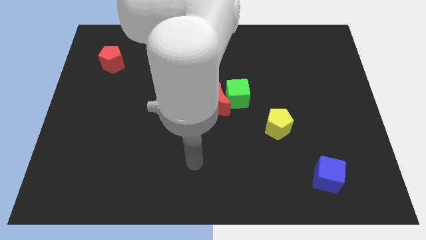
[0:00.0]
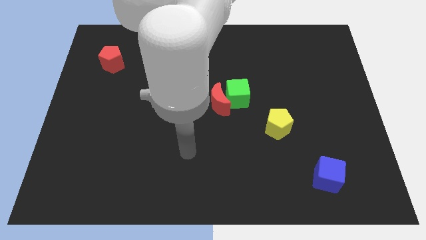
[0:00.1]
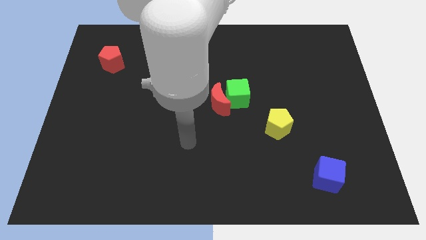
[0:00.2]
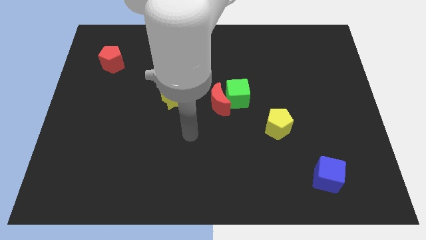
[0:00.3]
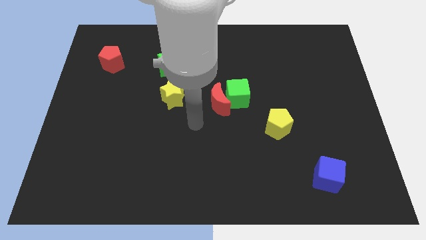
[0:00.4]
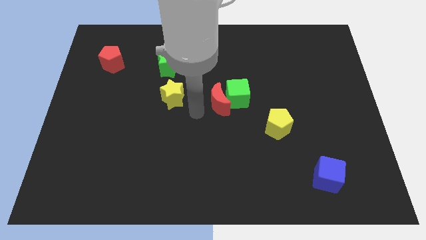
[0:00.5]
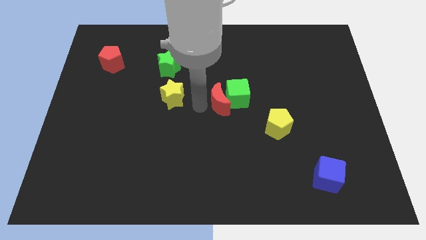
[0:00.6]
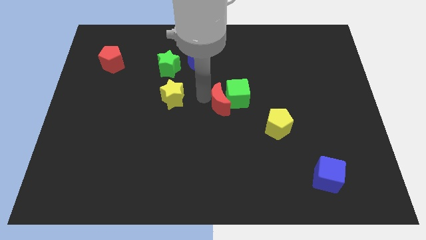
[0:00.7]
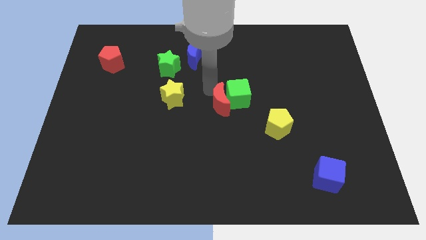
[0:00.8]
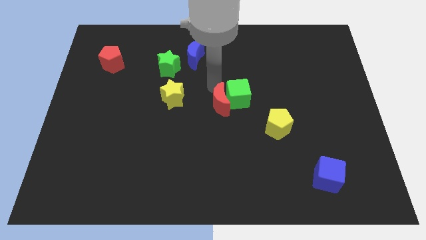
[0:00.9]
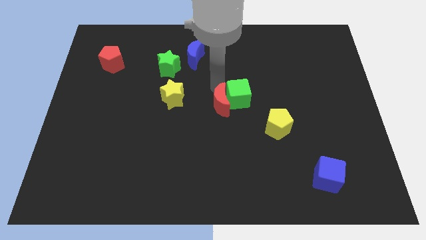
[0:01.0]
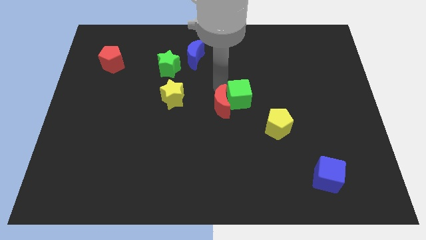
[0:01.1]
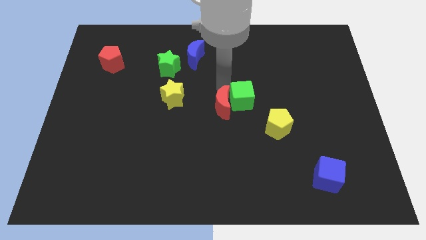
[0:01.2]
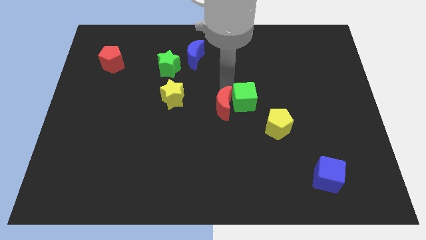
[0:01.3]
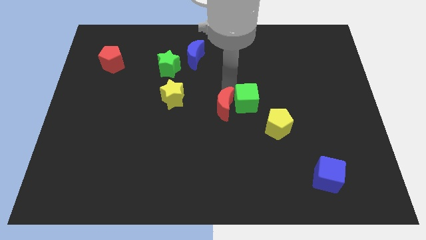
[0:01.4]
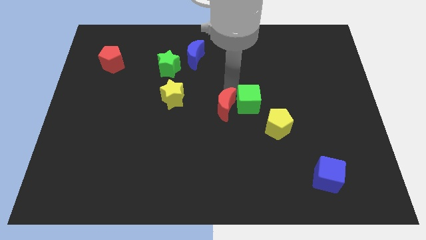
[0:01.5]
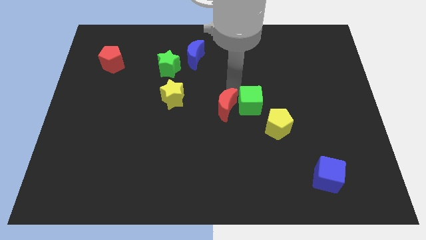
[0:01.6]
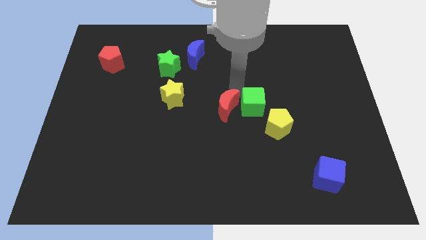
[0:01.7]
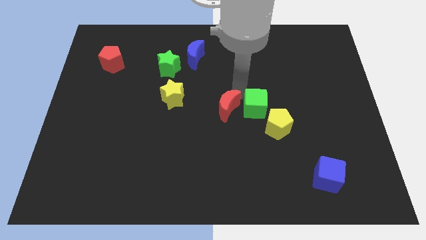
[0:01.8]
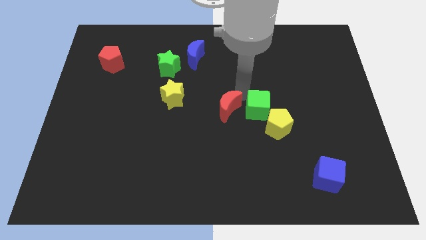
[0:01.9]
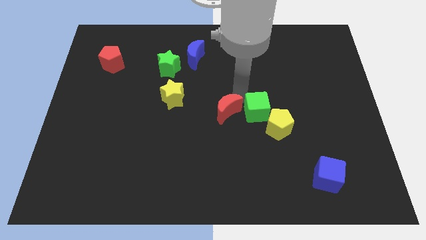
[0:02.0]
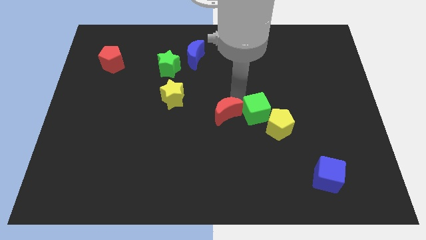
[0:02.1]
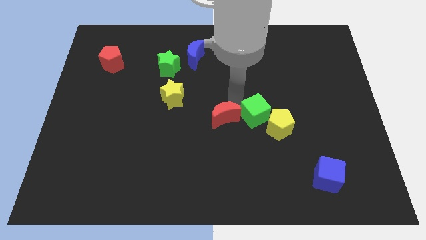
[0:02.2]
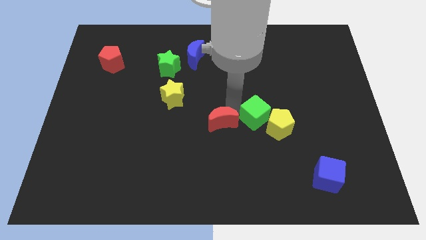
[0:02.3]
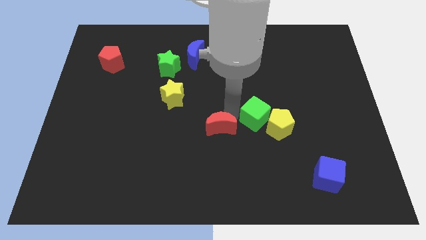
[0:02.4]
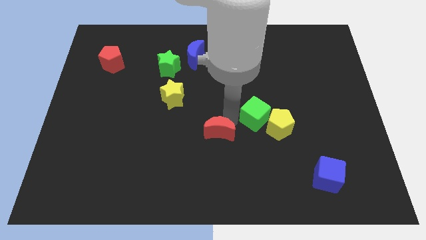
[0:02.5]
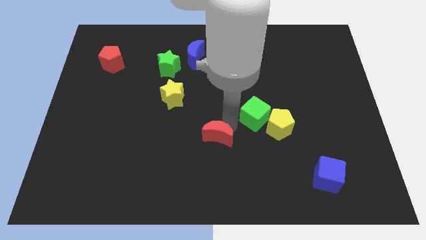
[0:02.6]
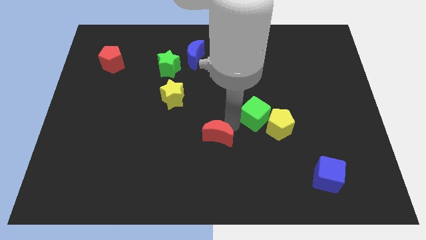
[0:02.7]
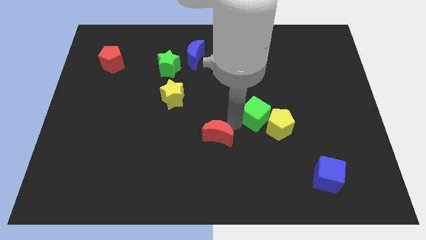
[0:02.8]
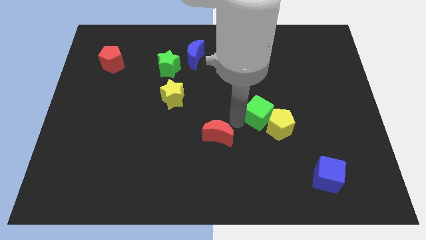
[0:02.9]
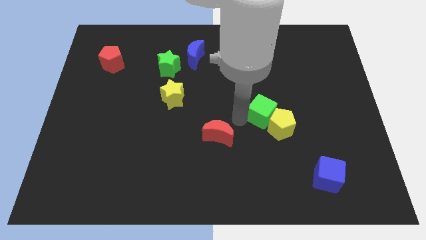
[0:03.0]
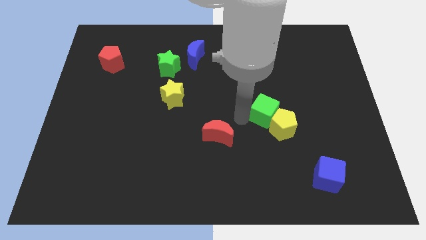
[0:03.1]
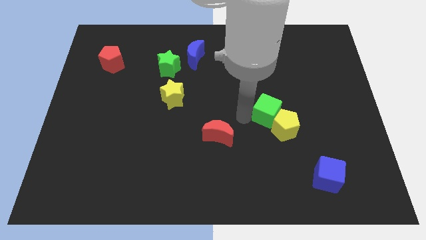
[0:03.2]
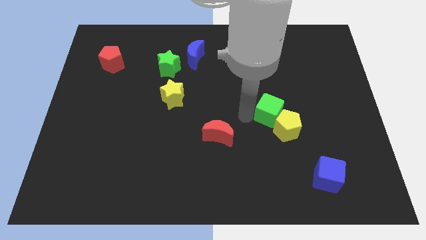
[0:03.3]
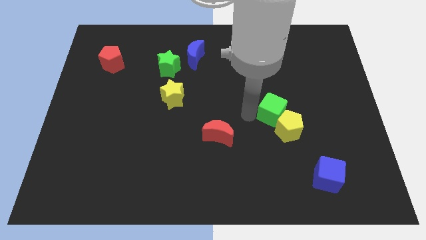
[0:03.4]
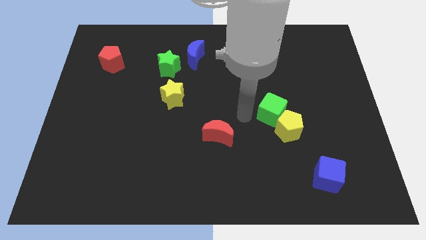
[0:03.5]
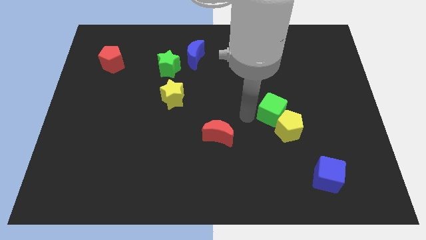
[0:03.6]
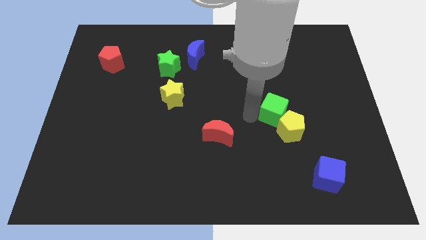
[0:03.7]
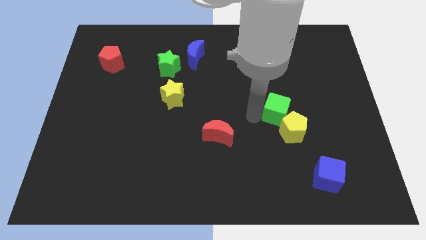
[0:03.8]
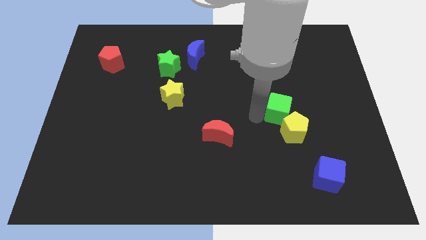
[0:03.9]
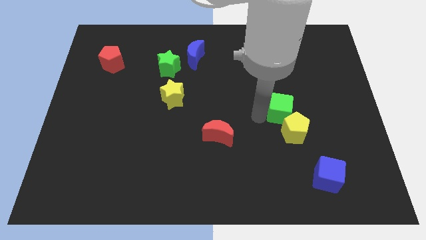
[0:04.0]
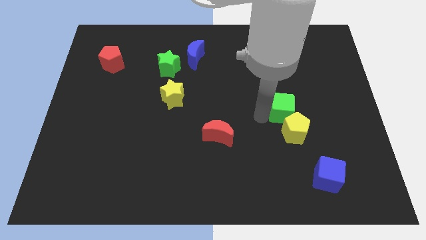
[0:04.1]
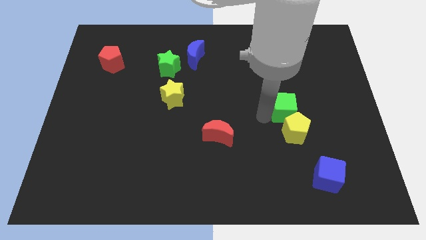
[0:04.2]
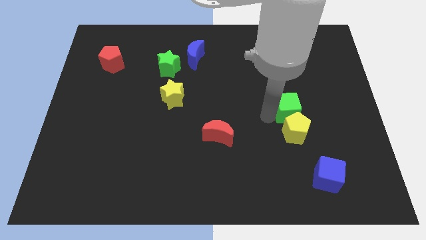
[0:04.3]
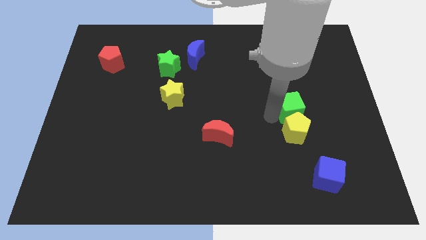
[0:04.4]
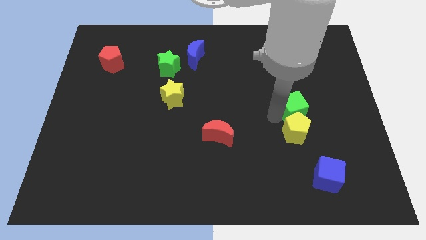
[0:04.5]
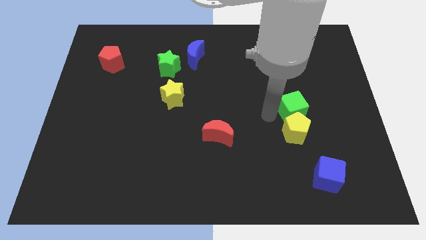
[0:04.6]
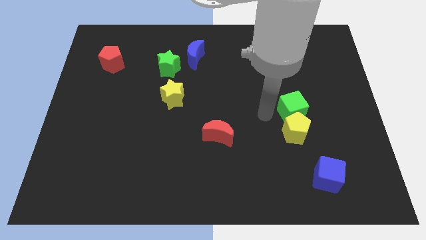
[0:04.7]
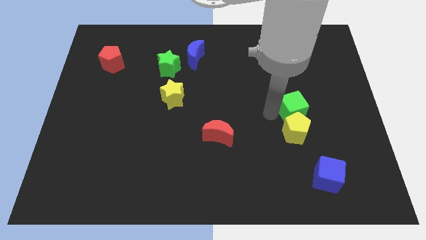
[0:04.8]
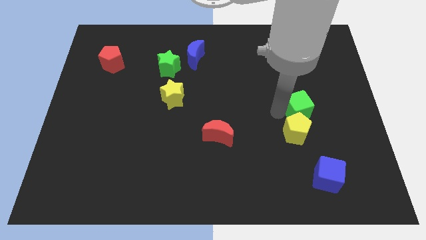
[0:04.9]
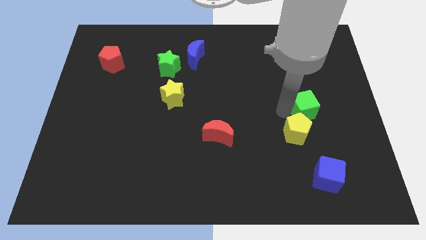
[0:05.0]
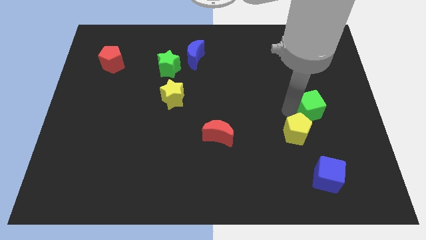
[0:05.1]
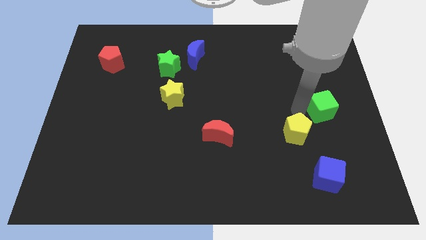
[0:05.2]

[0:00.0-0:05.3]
put the green cube to the right side of the board

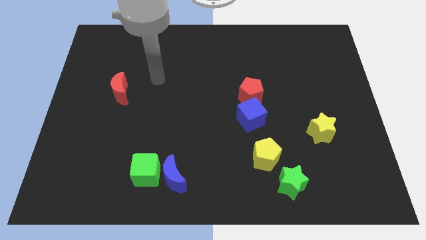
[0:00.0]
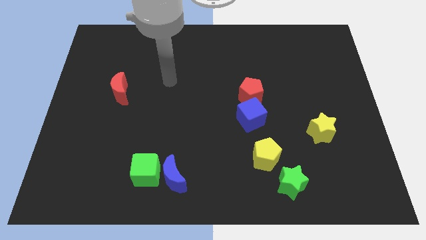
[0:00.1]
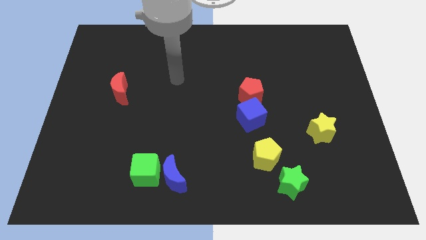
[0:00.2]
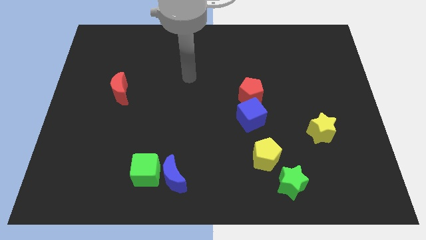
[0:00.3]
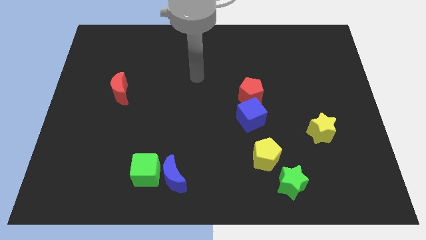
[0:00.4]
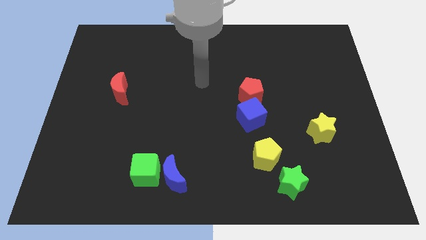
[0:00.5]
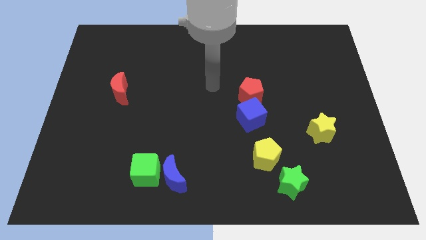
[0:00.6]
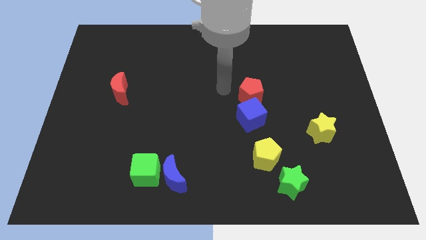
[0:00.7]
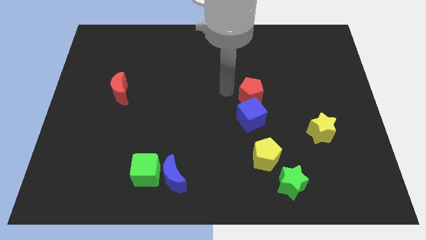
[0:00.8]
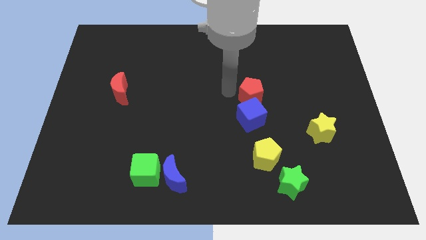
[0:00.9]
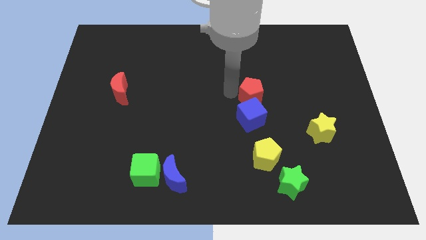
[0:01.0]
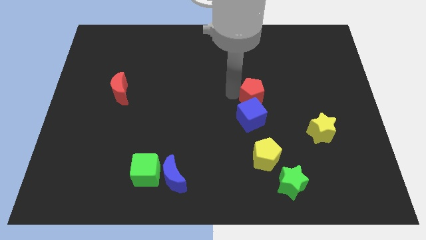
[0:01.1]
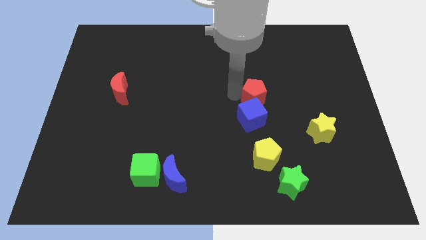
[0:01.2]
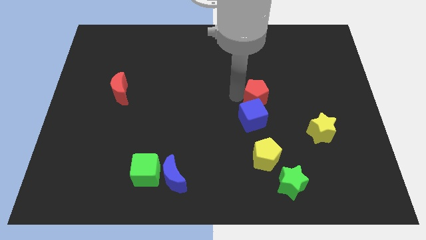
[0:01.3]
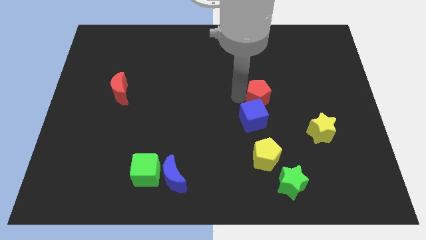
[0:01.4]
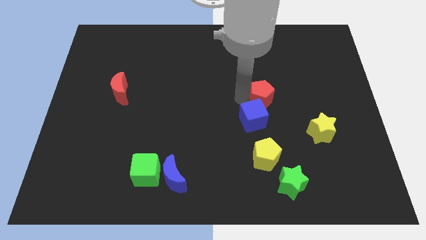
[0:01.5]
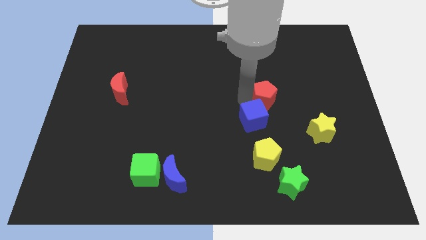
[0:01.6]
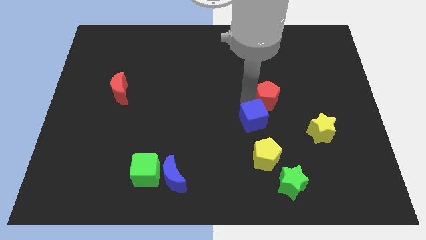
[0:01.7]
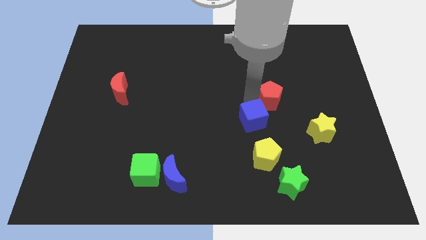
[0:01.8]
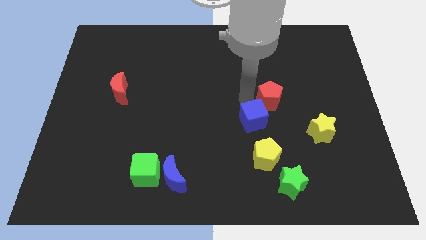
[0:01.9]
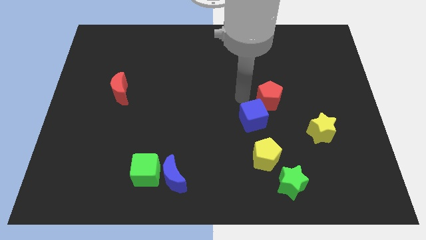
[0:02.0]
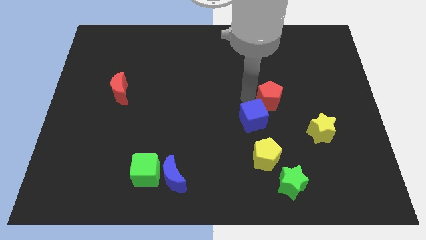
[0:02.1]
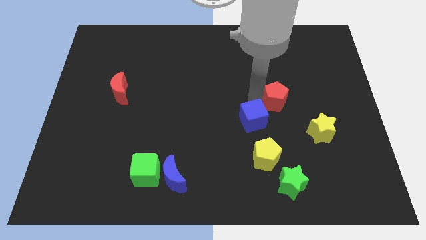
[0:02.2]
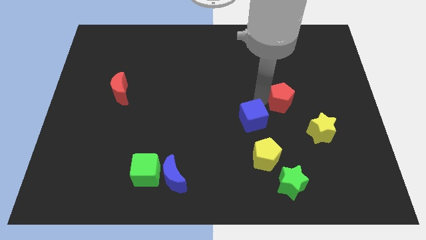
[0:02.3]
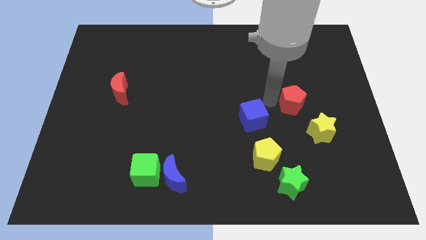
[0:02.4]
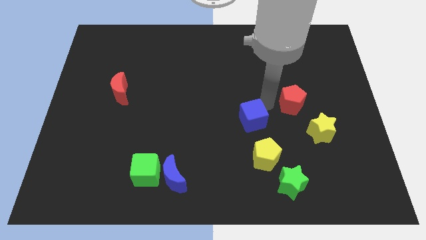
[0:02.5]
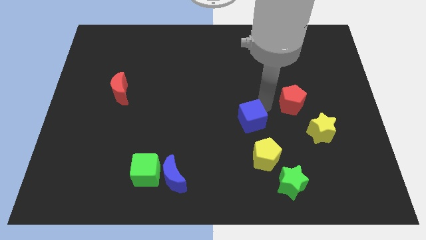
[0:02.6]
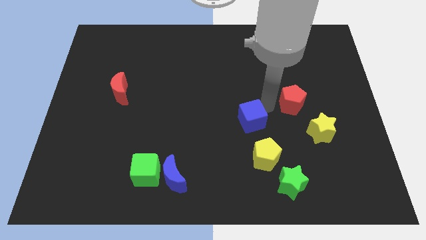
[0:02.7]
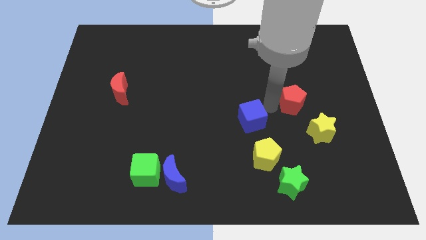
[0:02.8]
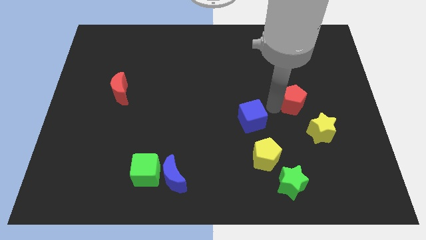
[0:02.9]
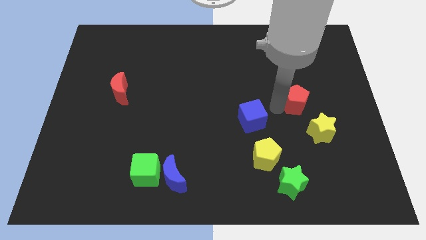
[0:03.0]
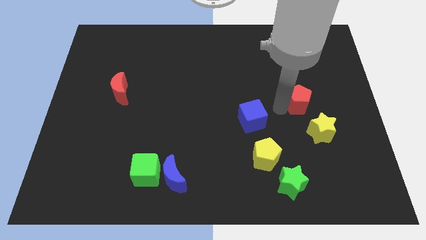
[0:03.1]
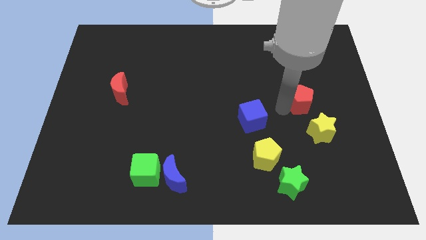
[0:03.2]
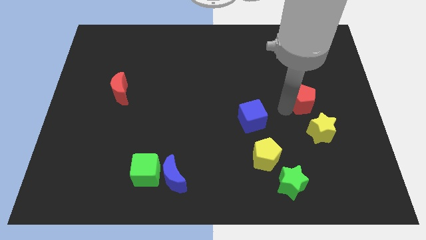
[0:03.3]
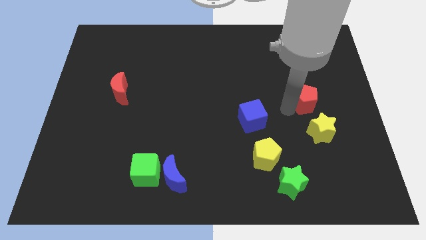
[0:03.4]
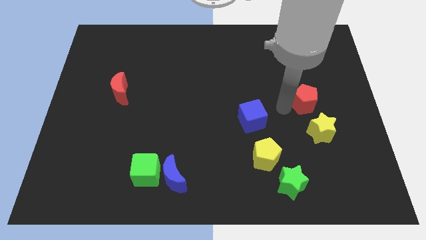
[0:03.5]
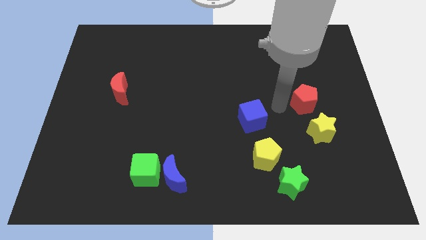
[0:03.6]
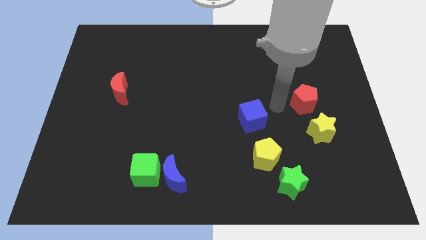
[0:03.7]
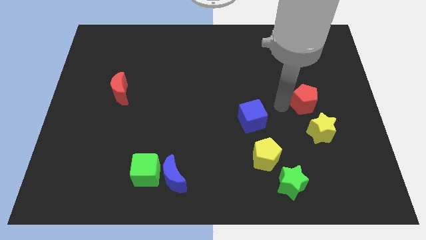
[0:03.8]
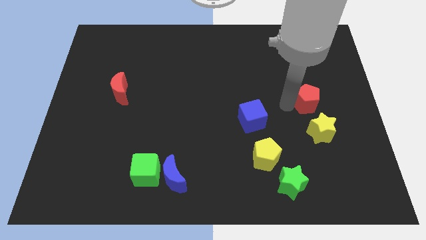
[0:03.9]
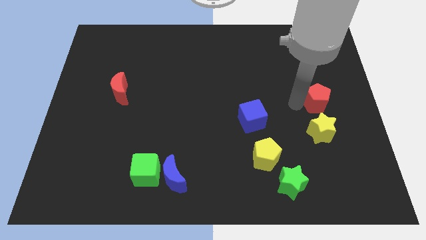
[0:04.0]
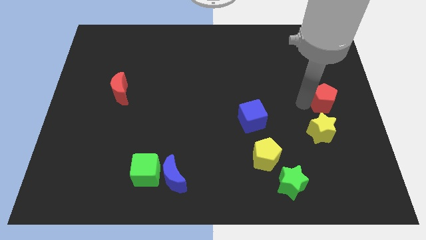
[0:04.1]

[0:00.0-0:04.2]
slide the red pentagon to the right side
